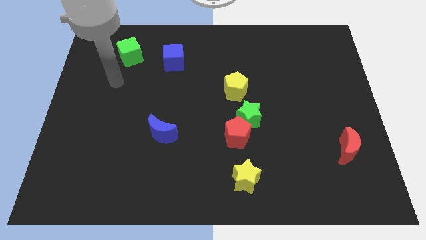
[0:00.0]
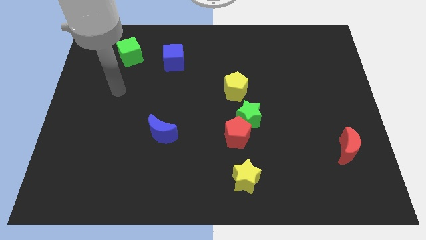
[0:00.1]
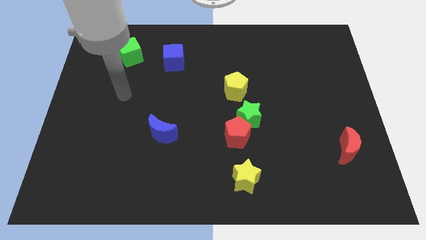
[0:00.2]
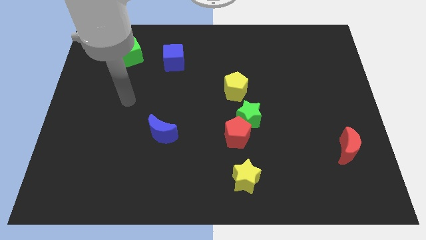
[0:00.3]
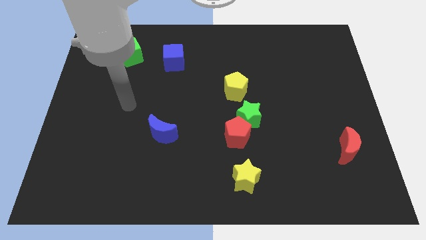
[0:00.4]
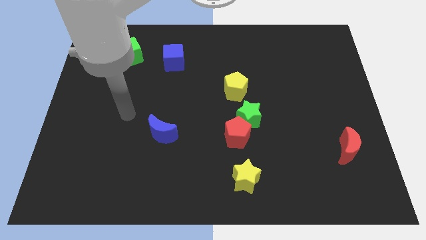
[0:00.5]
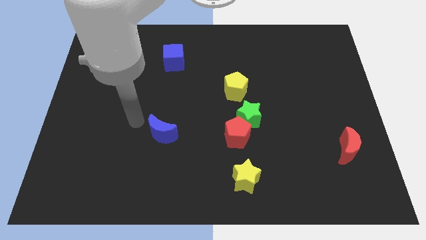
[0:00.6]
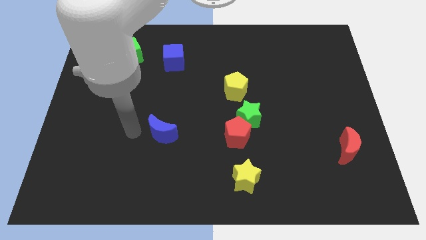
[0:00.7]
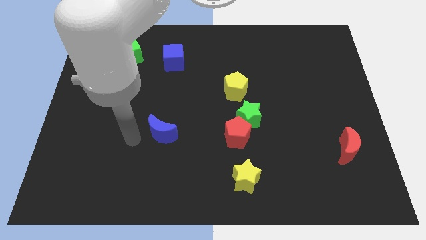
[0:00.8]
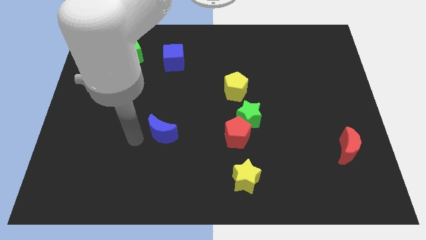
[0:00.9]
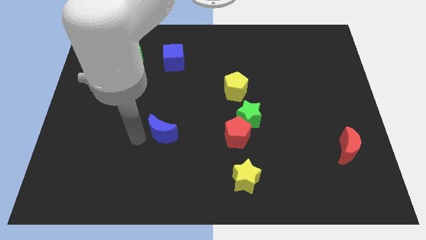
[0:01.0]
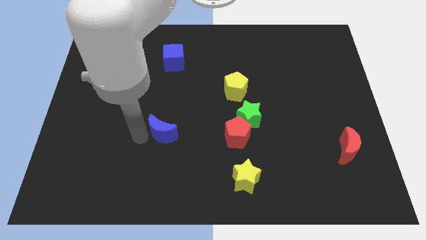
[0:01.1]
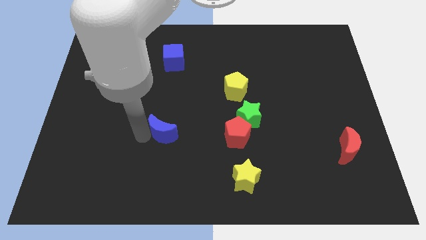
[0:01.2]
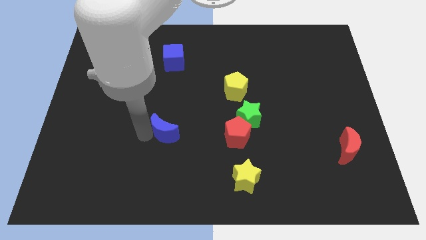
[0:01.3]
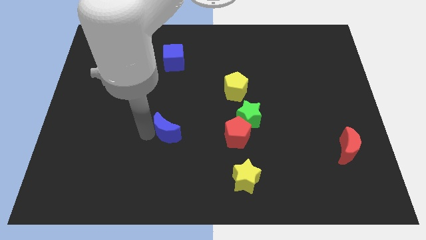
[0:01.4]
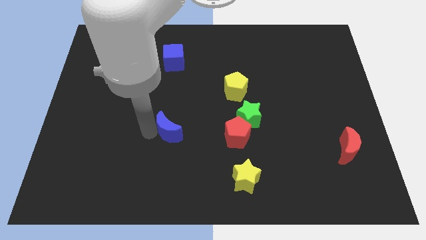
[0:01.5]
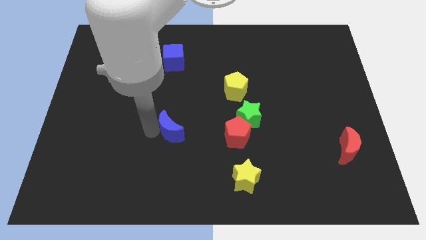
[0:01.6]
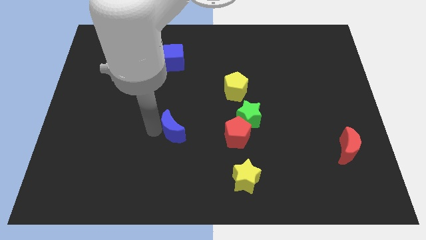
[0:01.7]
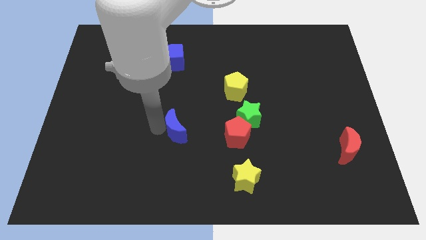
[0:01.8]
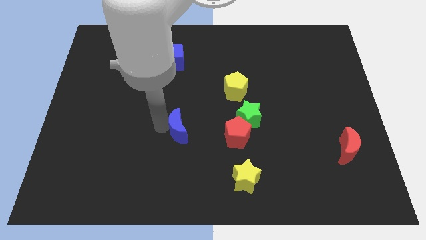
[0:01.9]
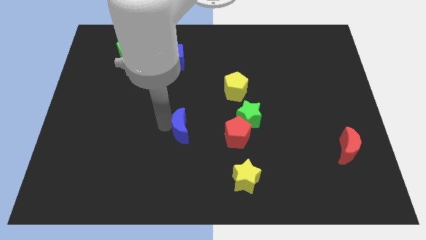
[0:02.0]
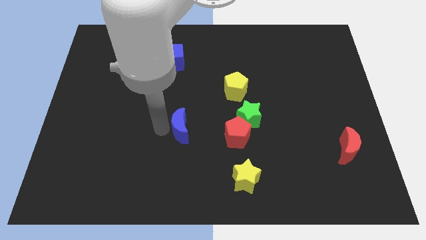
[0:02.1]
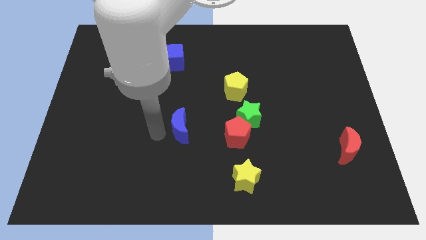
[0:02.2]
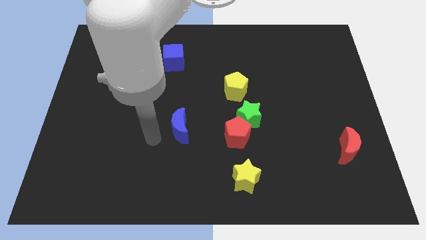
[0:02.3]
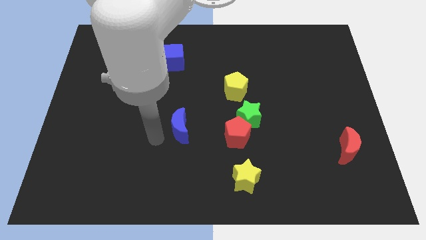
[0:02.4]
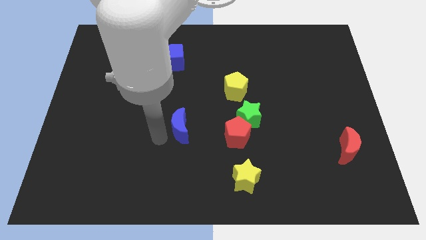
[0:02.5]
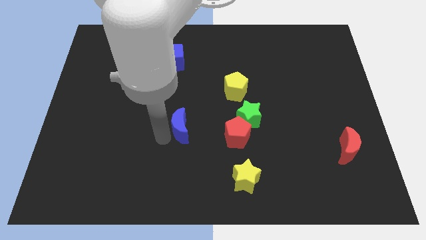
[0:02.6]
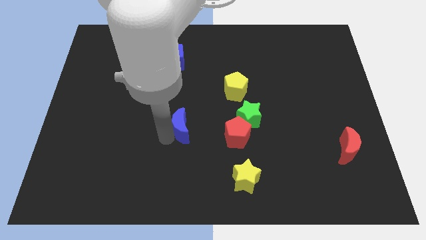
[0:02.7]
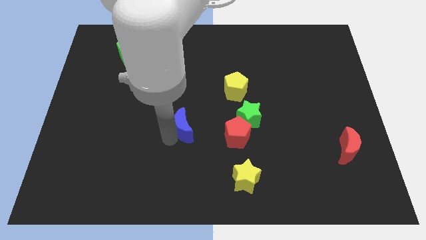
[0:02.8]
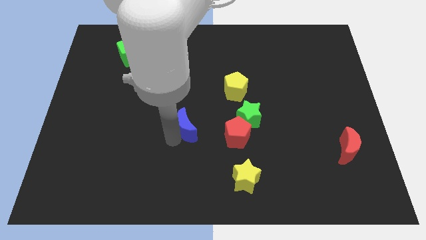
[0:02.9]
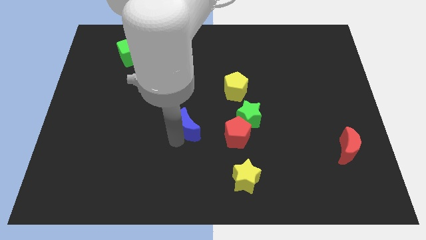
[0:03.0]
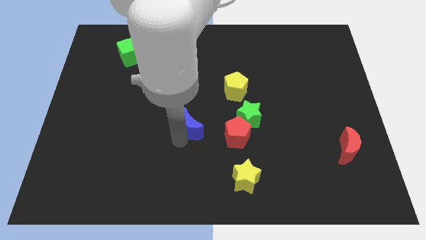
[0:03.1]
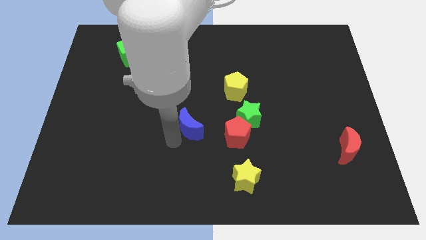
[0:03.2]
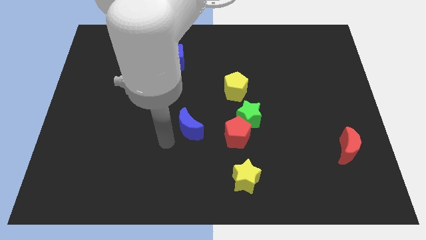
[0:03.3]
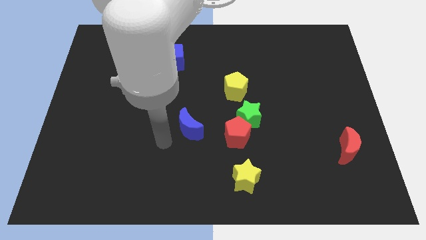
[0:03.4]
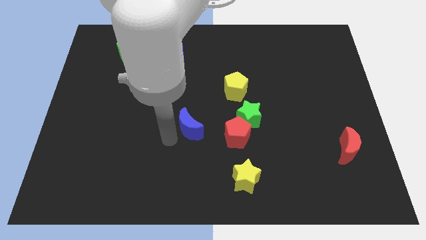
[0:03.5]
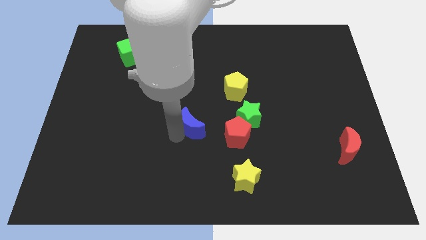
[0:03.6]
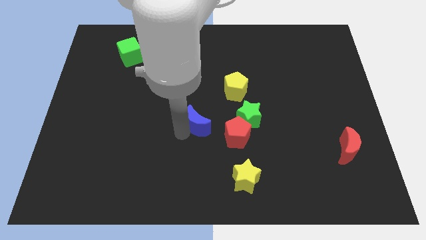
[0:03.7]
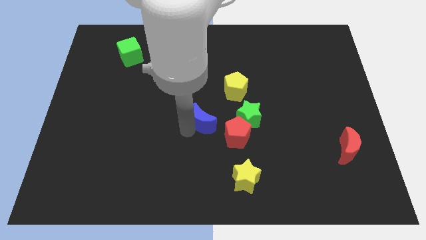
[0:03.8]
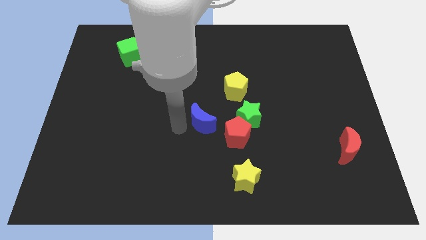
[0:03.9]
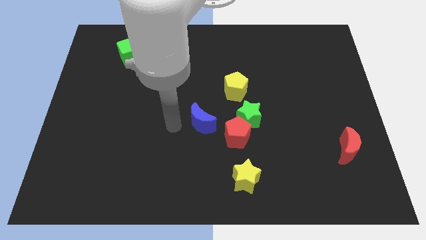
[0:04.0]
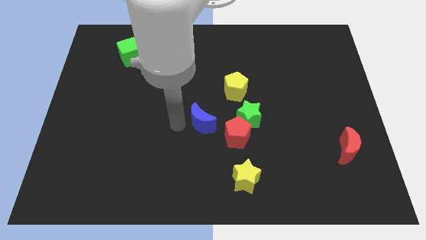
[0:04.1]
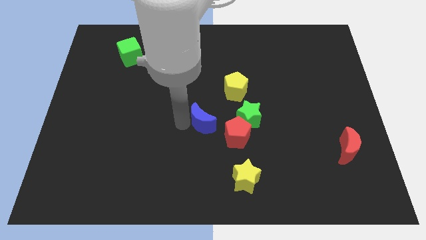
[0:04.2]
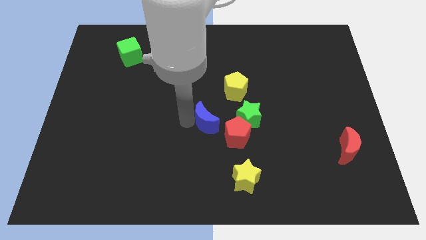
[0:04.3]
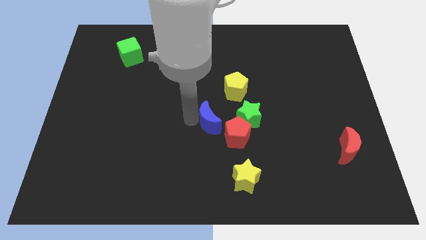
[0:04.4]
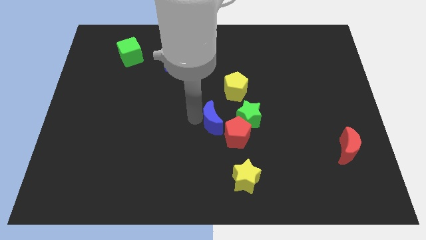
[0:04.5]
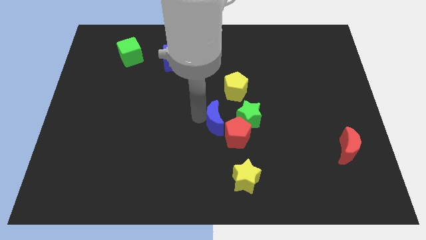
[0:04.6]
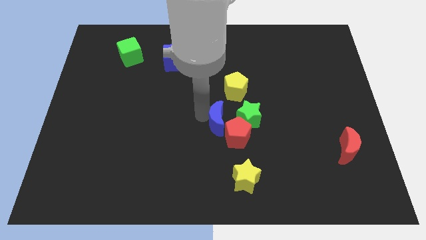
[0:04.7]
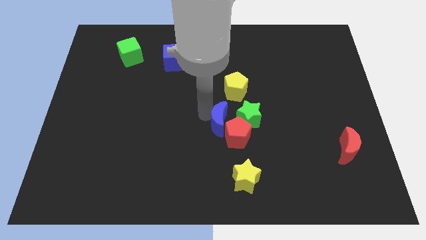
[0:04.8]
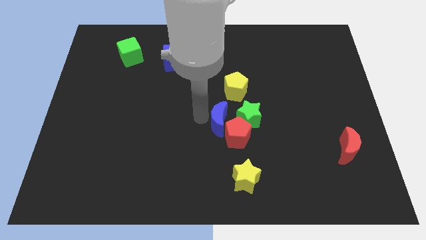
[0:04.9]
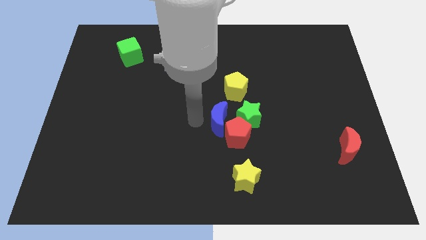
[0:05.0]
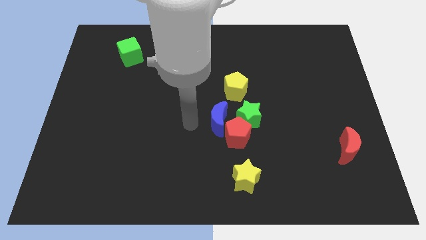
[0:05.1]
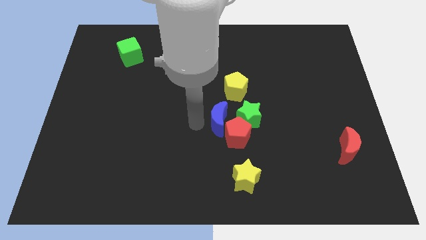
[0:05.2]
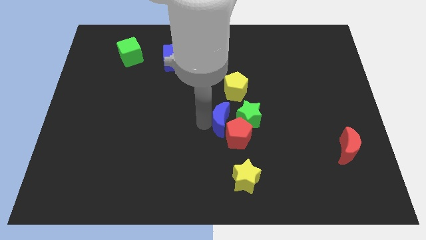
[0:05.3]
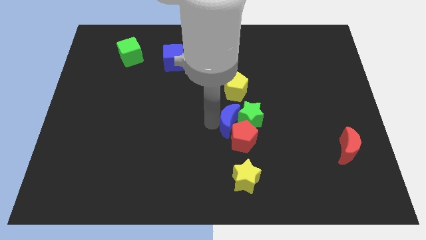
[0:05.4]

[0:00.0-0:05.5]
push the blue moon towards the green star
